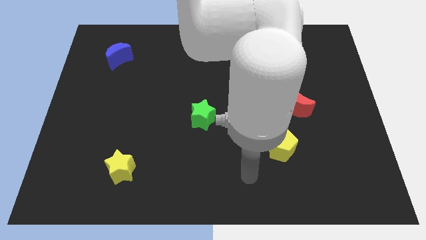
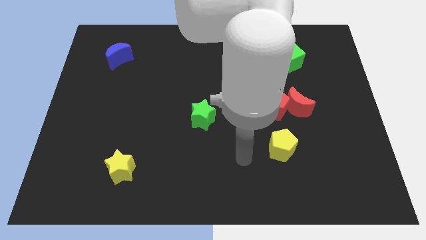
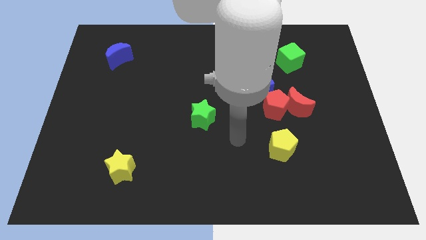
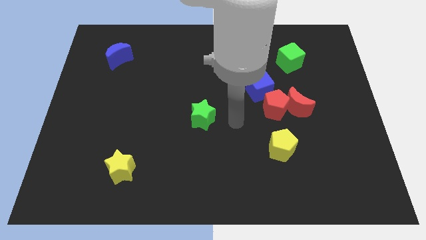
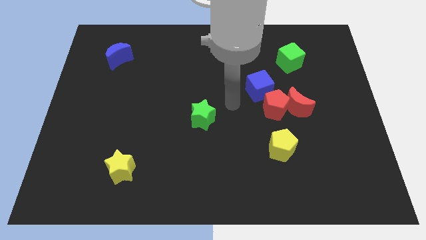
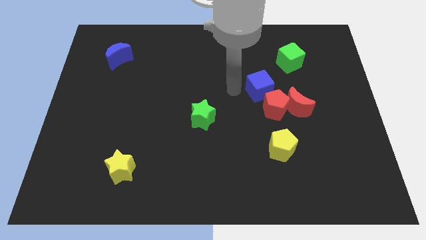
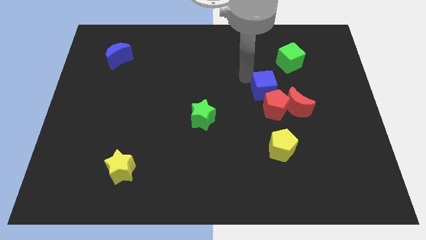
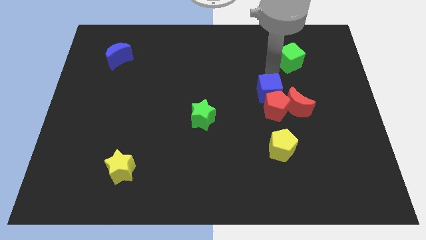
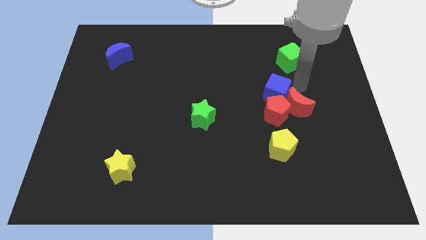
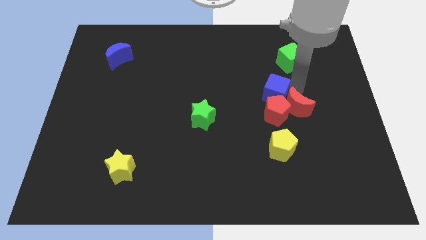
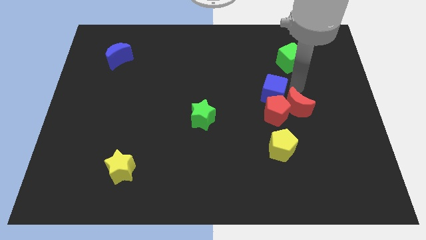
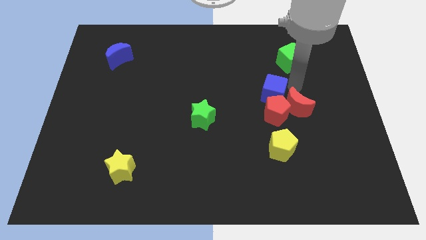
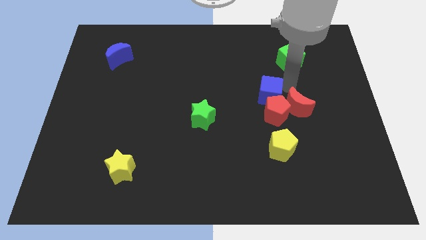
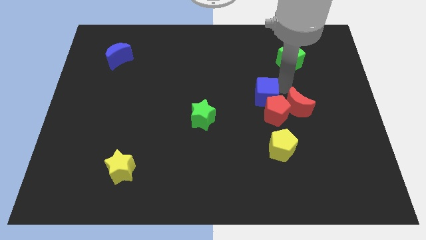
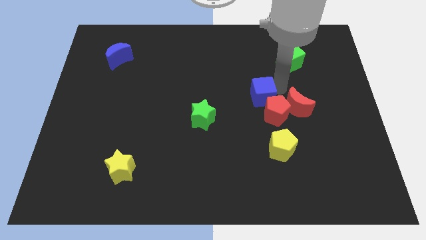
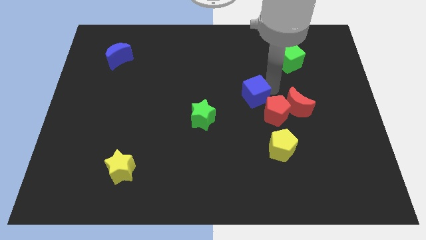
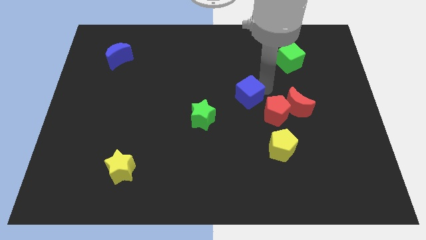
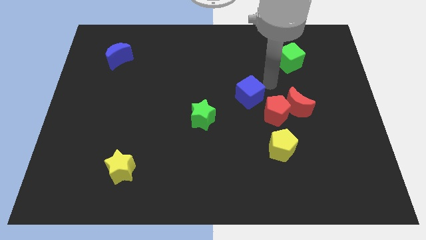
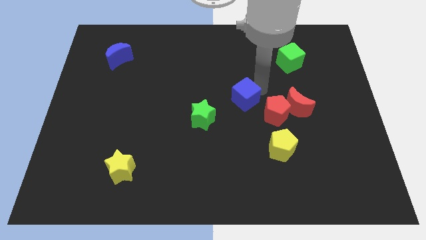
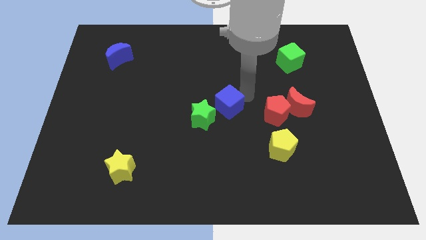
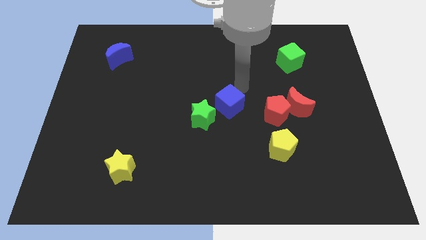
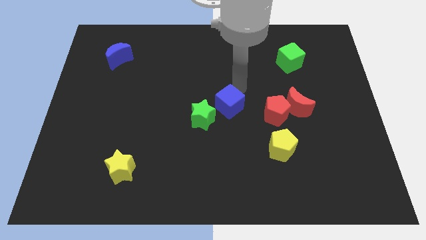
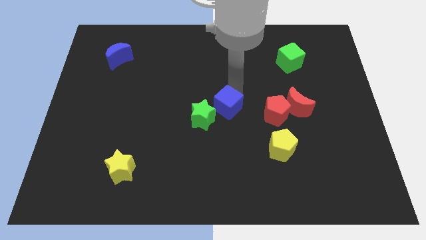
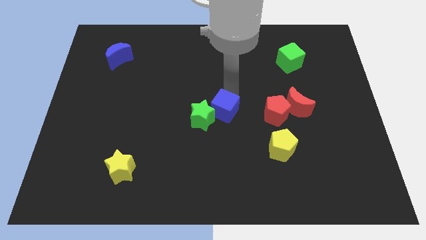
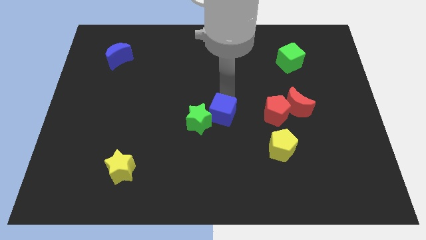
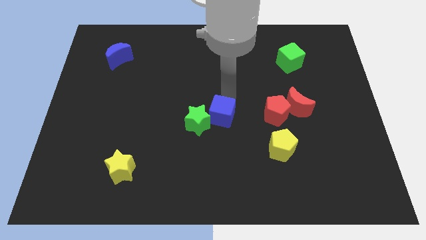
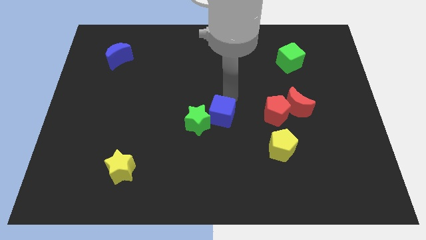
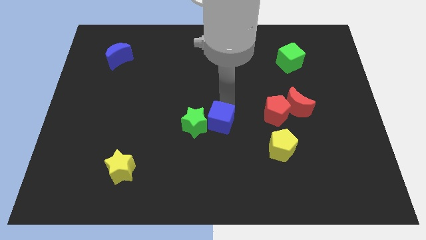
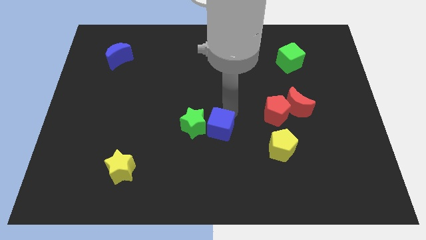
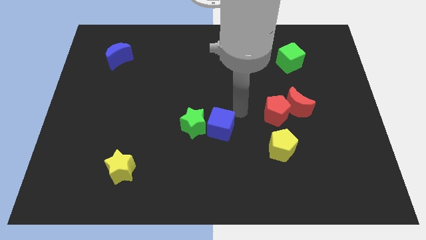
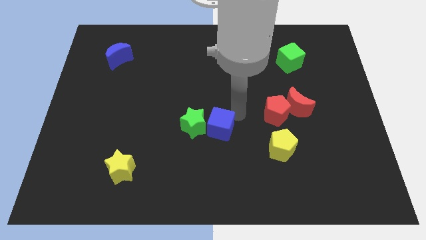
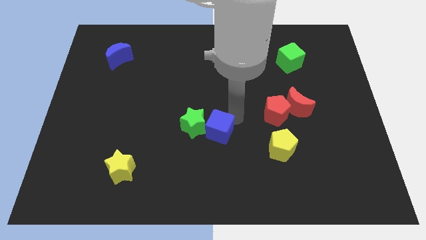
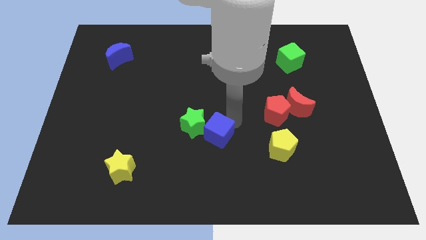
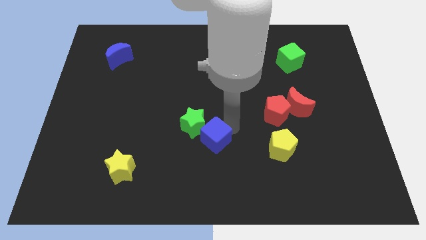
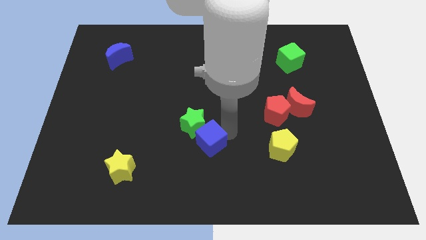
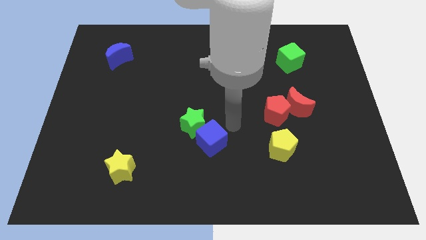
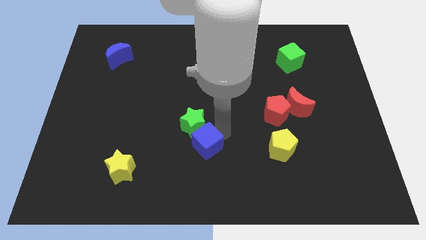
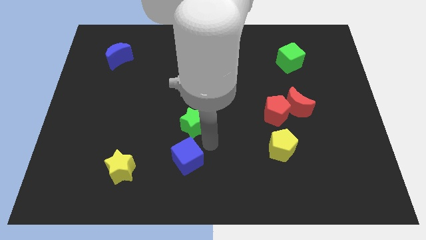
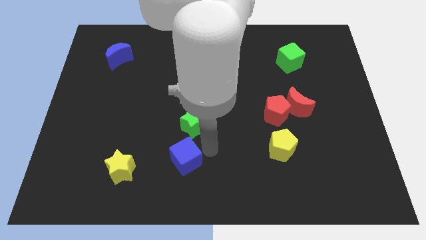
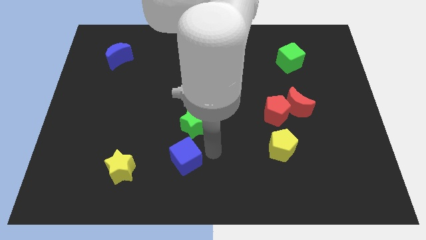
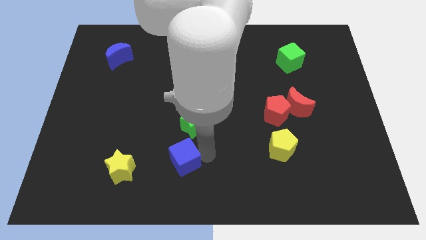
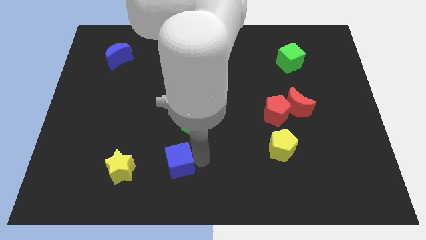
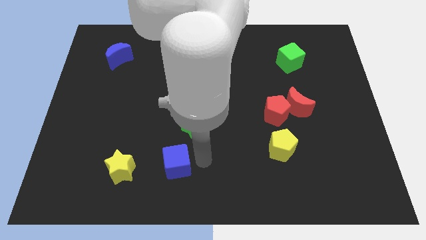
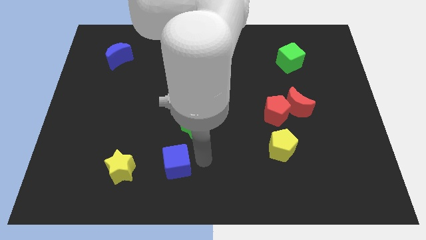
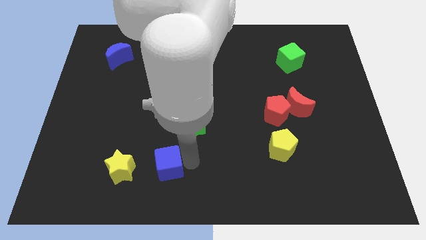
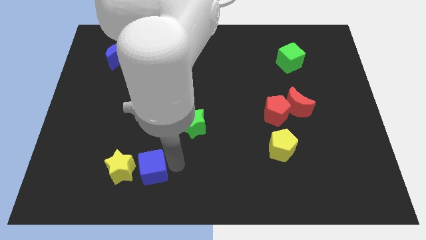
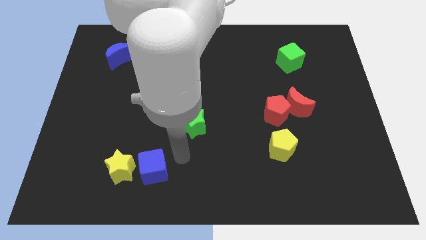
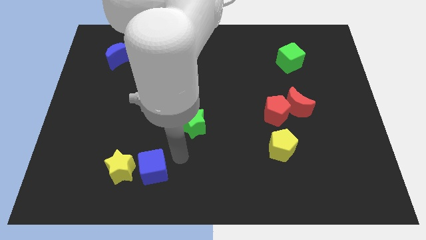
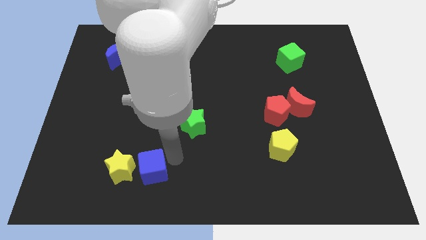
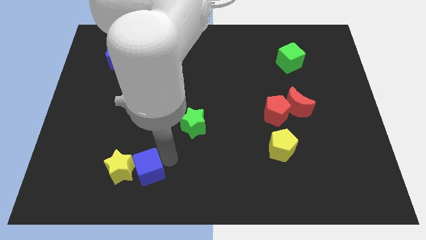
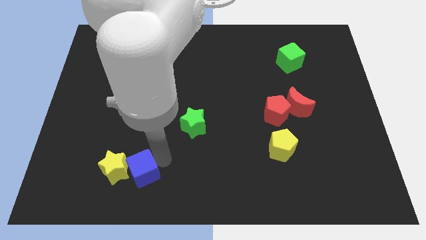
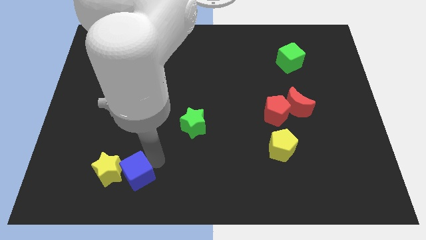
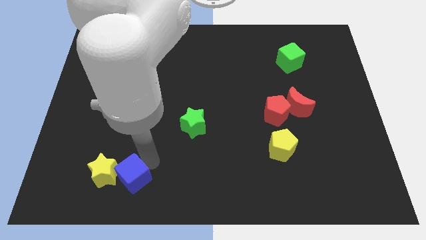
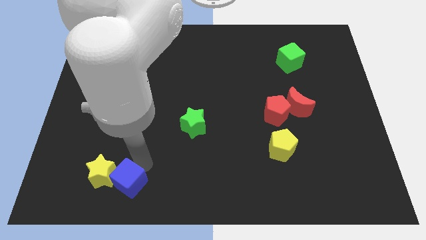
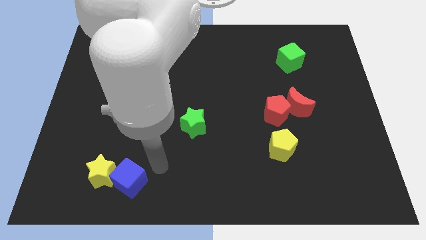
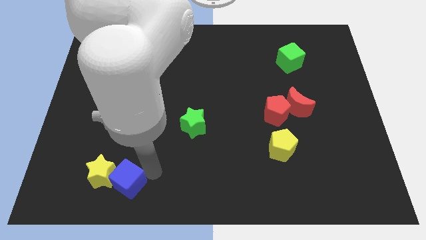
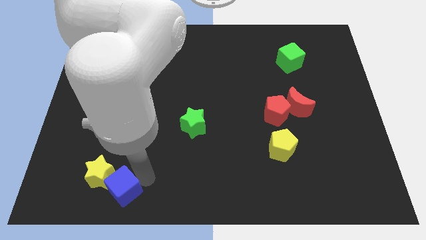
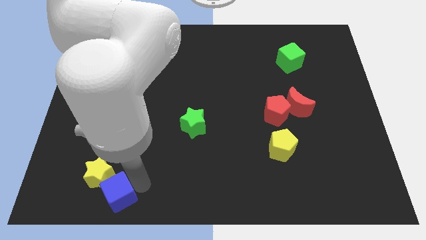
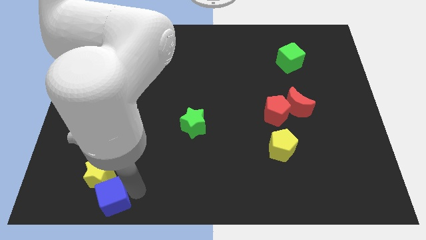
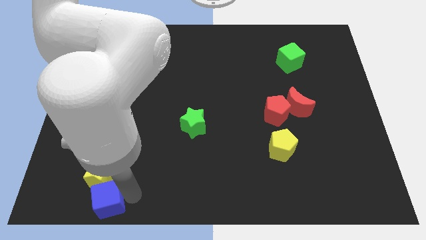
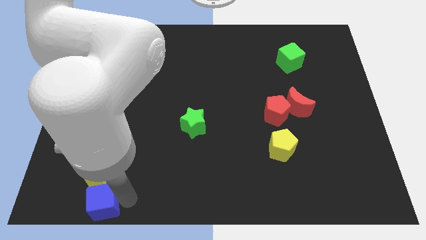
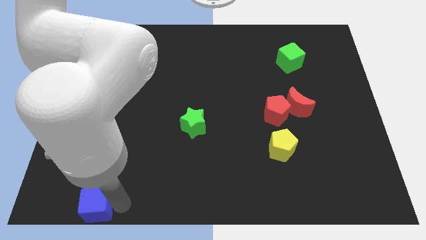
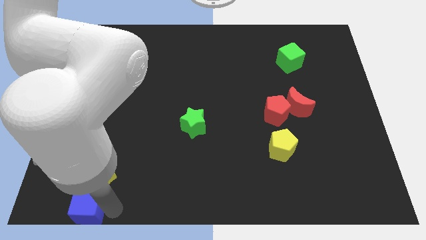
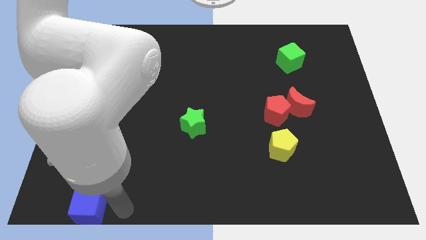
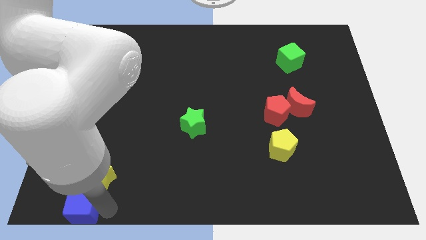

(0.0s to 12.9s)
slide the blue cube to the bottom left corner
